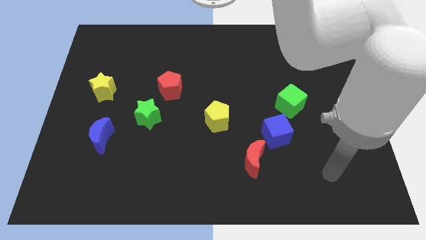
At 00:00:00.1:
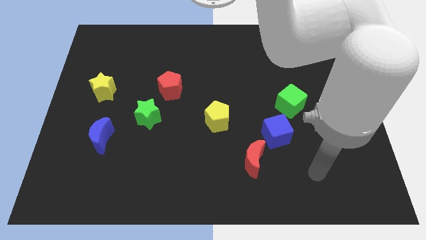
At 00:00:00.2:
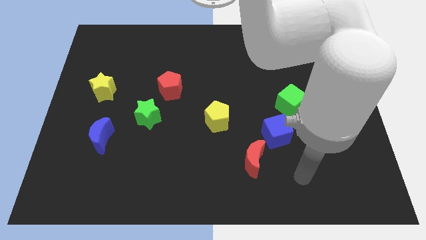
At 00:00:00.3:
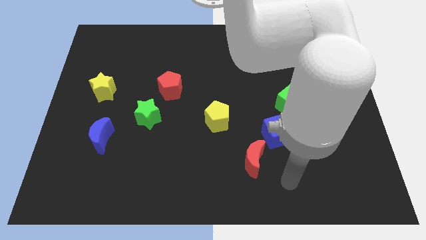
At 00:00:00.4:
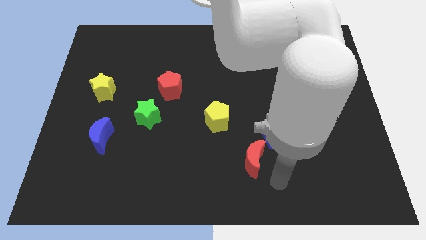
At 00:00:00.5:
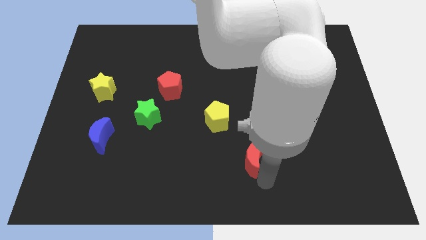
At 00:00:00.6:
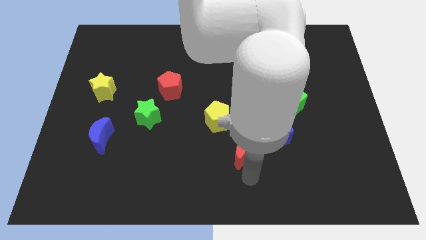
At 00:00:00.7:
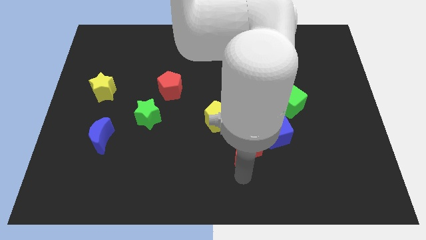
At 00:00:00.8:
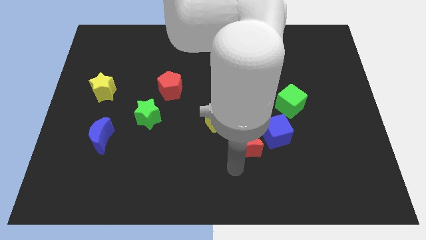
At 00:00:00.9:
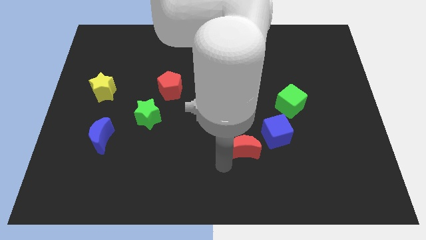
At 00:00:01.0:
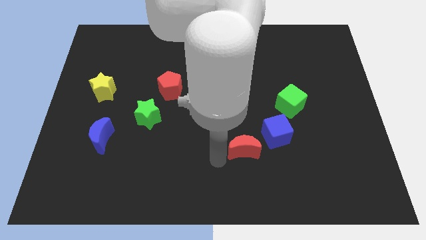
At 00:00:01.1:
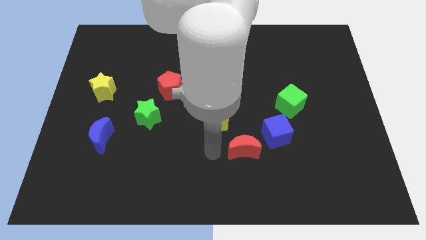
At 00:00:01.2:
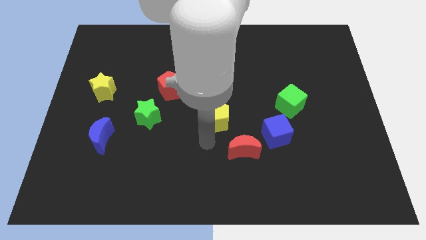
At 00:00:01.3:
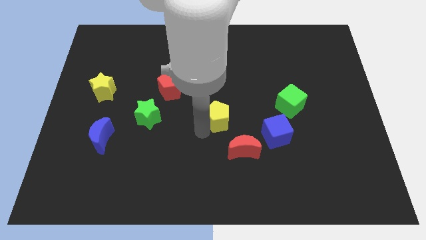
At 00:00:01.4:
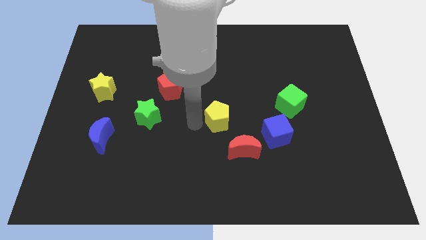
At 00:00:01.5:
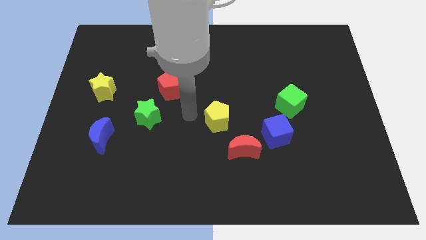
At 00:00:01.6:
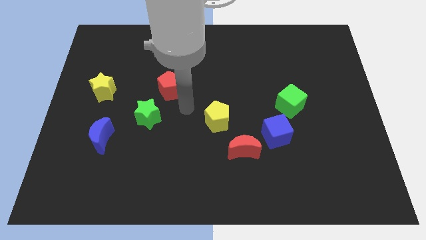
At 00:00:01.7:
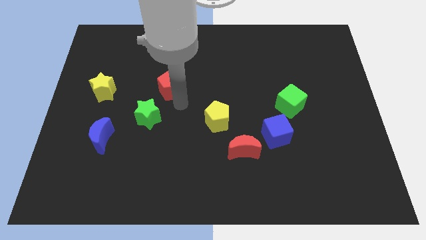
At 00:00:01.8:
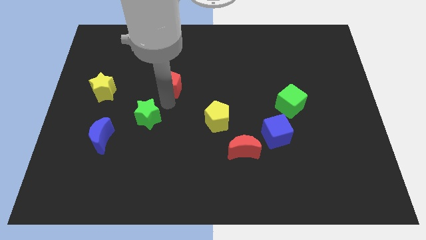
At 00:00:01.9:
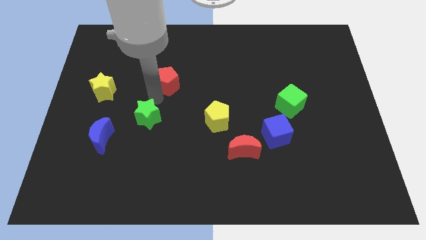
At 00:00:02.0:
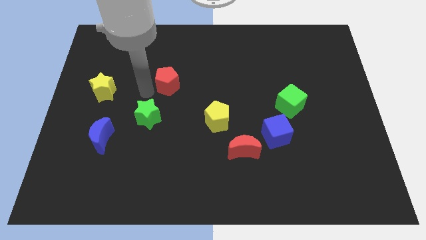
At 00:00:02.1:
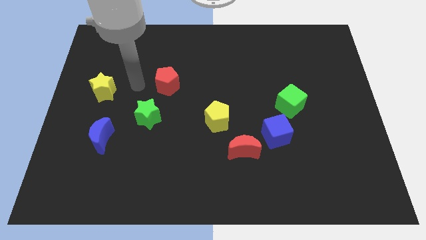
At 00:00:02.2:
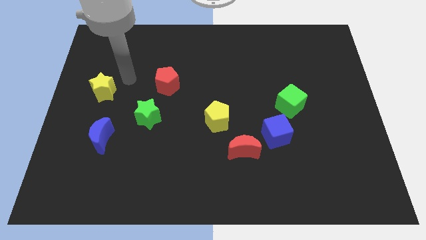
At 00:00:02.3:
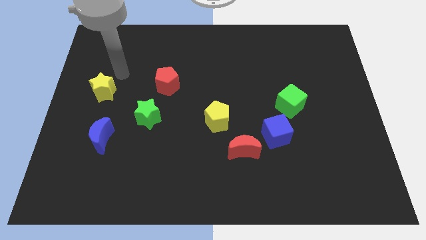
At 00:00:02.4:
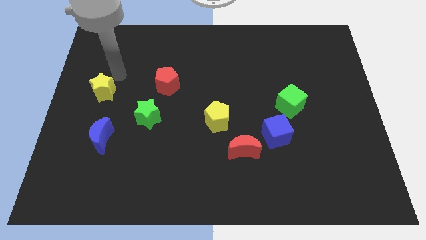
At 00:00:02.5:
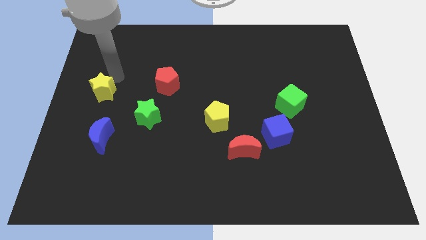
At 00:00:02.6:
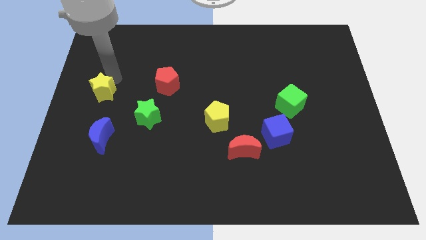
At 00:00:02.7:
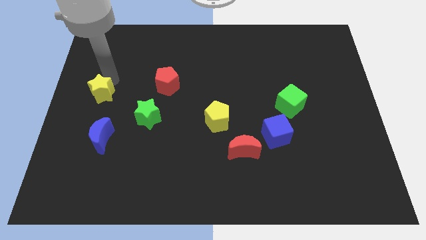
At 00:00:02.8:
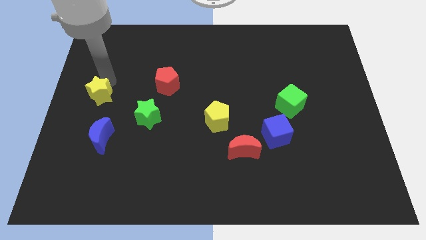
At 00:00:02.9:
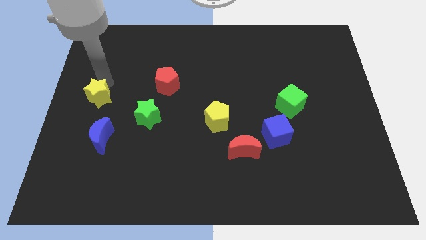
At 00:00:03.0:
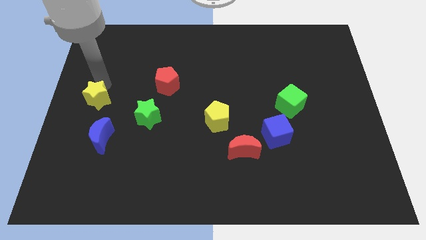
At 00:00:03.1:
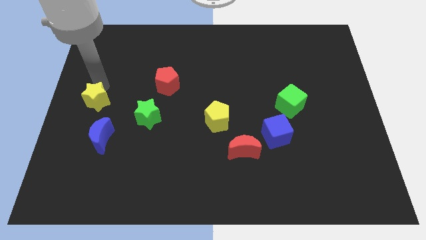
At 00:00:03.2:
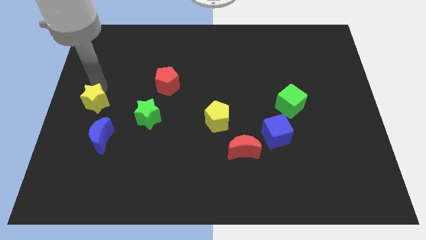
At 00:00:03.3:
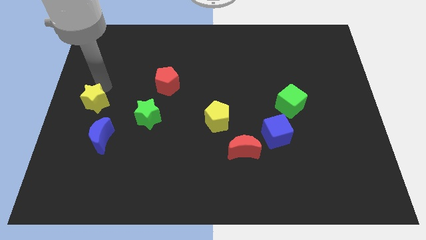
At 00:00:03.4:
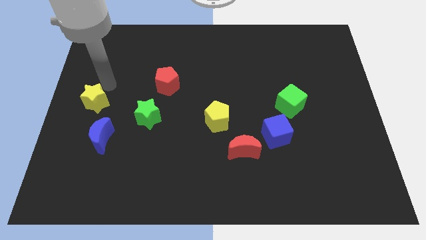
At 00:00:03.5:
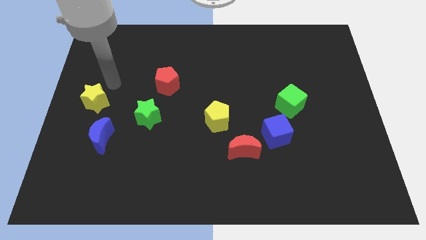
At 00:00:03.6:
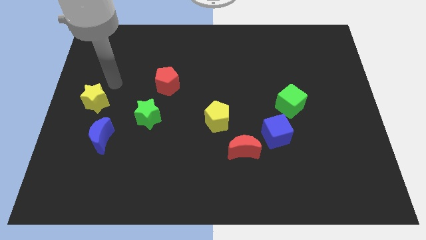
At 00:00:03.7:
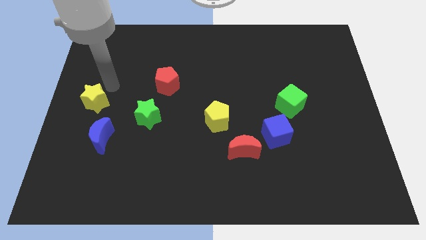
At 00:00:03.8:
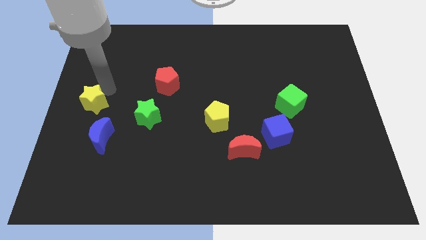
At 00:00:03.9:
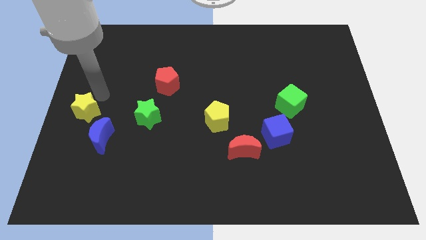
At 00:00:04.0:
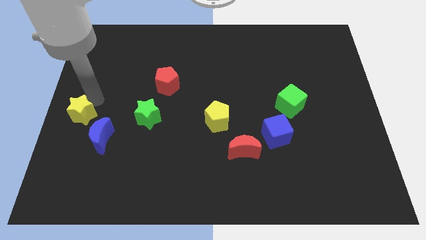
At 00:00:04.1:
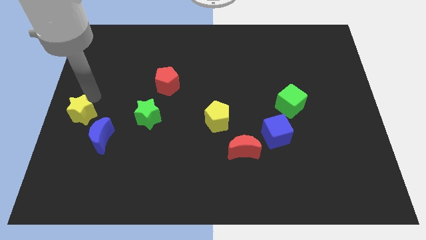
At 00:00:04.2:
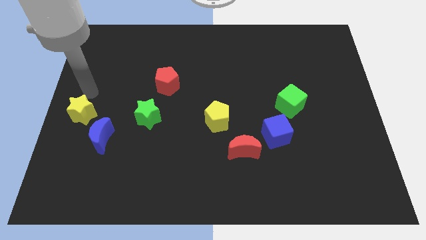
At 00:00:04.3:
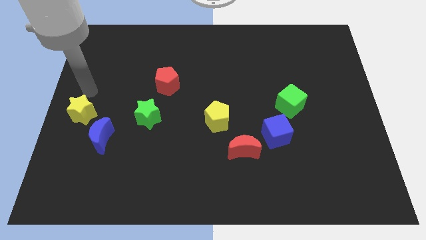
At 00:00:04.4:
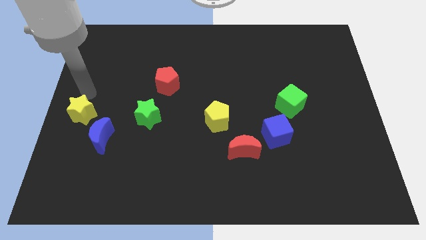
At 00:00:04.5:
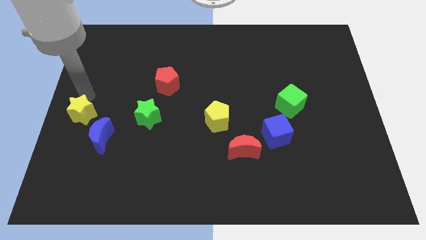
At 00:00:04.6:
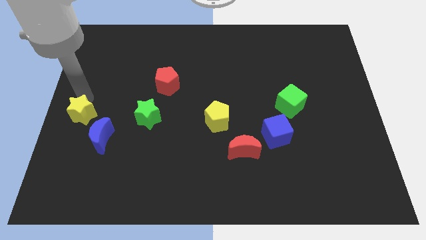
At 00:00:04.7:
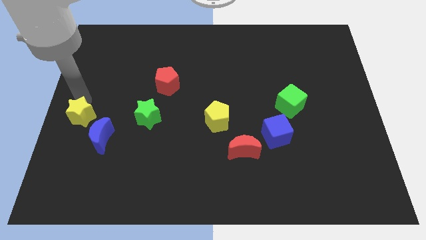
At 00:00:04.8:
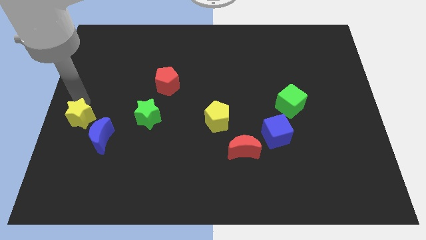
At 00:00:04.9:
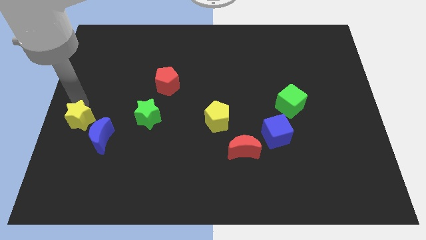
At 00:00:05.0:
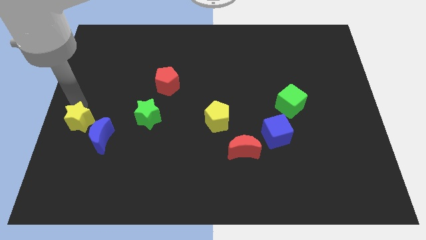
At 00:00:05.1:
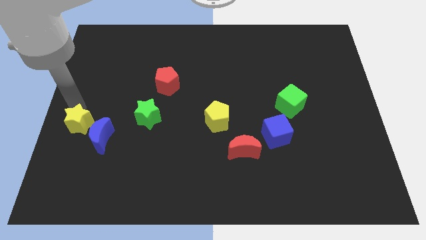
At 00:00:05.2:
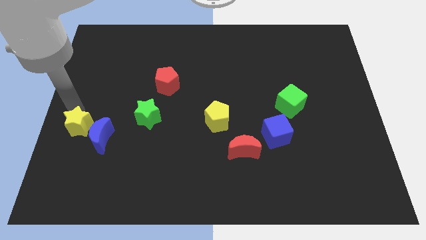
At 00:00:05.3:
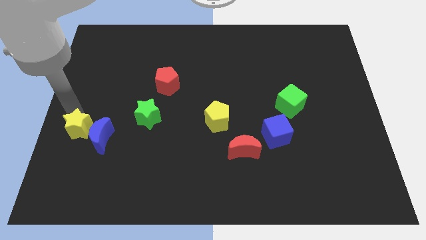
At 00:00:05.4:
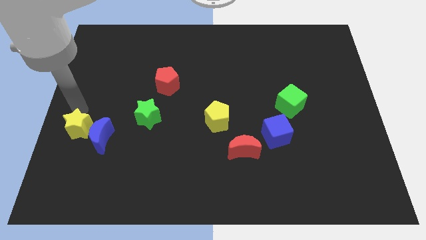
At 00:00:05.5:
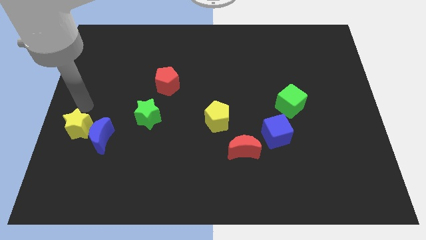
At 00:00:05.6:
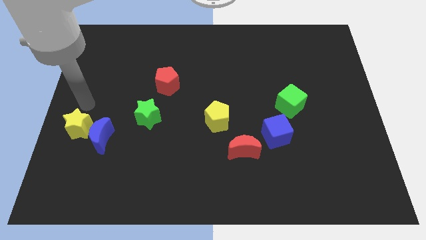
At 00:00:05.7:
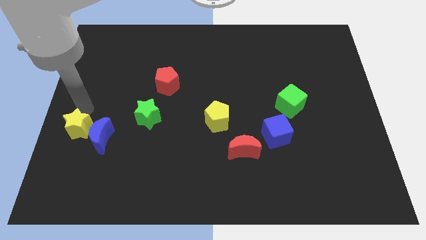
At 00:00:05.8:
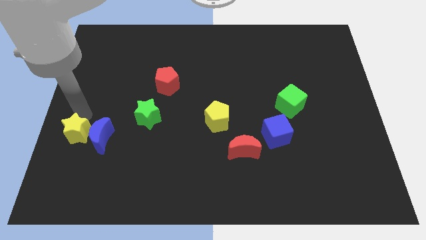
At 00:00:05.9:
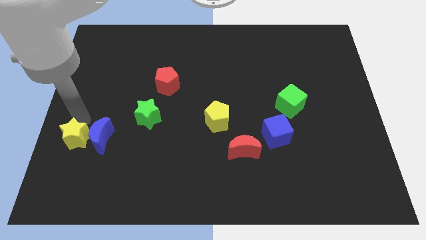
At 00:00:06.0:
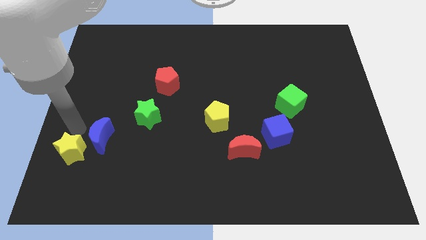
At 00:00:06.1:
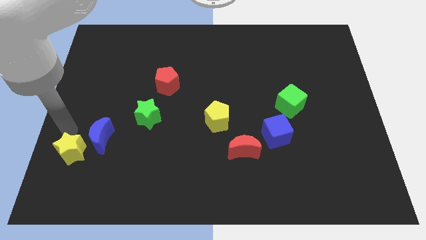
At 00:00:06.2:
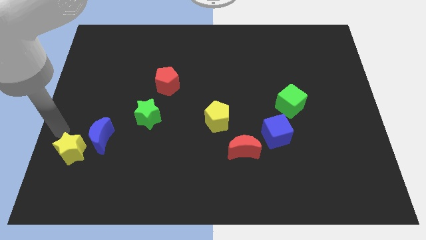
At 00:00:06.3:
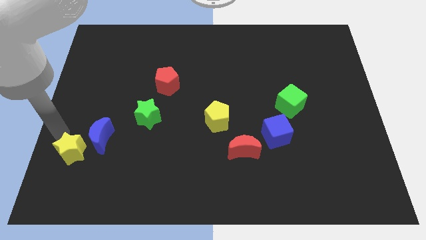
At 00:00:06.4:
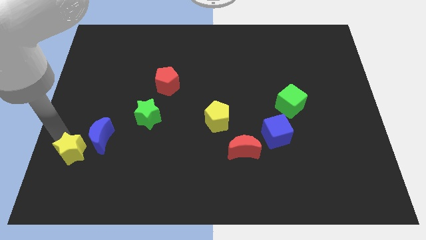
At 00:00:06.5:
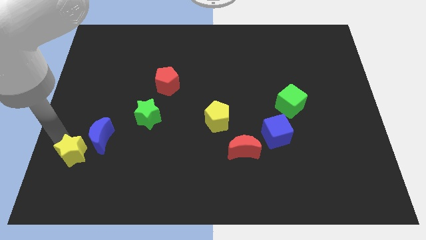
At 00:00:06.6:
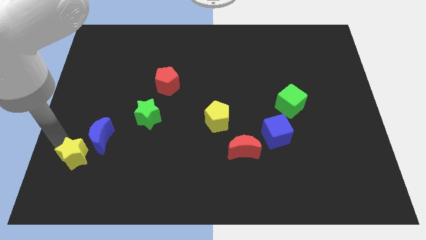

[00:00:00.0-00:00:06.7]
push the yellow star to the bottom of the blue moon

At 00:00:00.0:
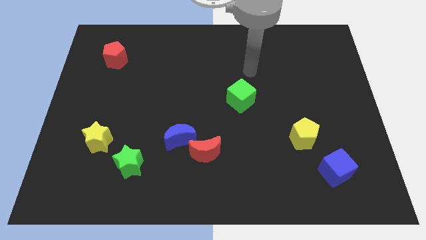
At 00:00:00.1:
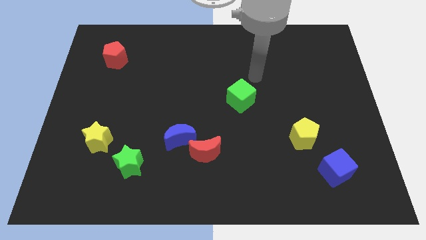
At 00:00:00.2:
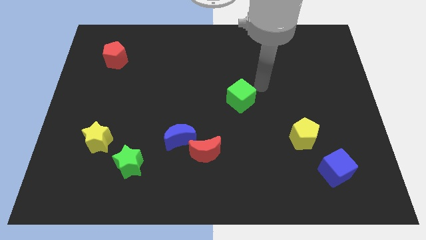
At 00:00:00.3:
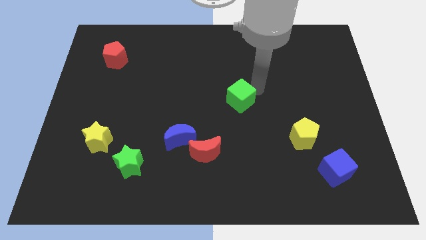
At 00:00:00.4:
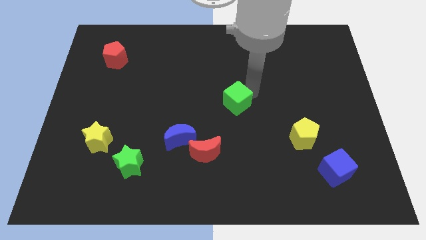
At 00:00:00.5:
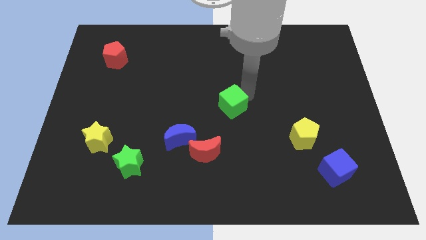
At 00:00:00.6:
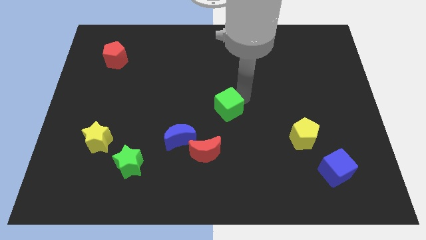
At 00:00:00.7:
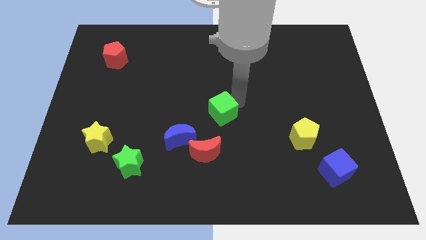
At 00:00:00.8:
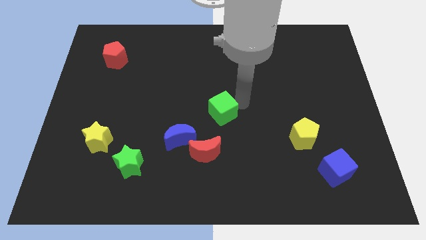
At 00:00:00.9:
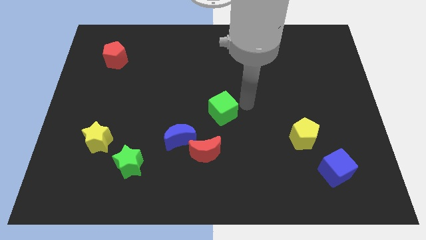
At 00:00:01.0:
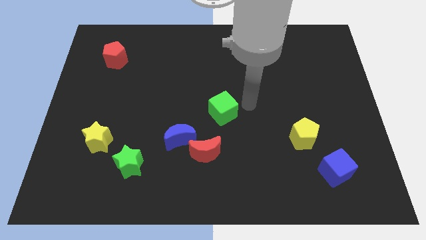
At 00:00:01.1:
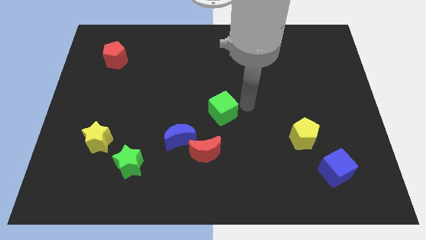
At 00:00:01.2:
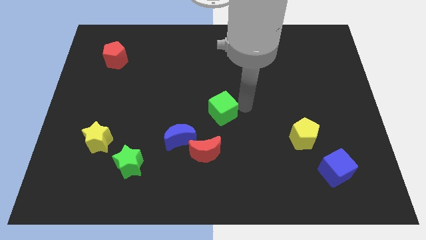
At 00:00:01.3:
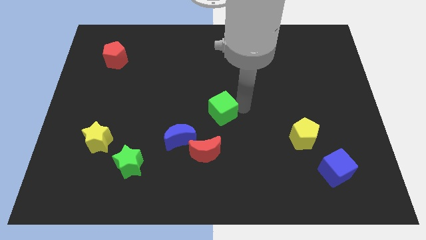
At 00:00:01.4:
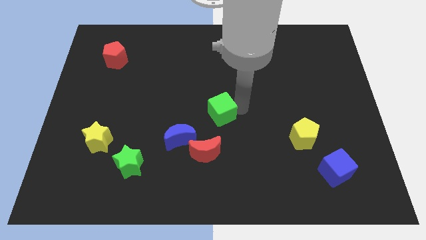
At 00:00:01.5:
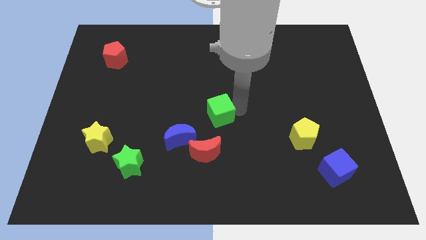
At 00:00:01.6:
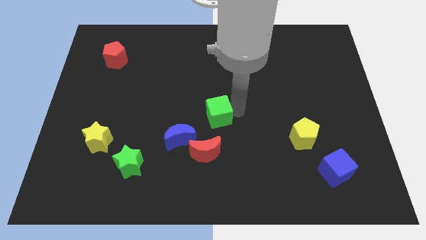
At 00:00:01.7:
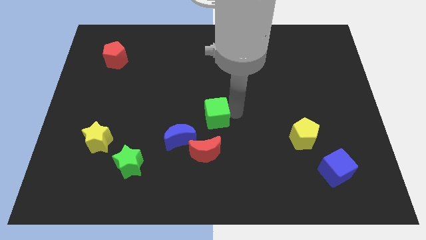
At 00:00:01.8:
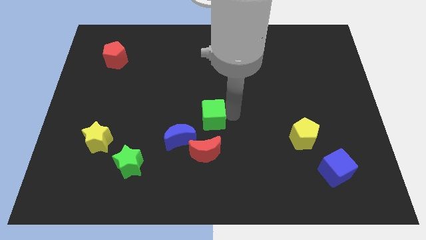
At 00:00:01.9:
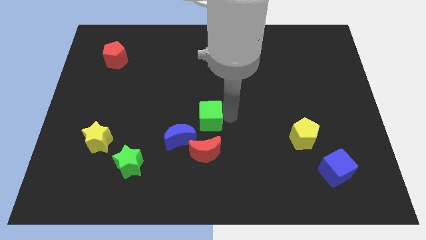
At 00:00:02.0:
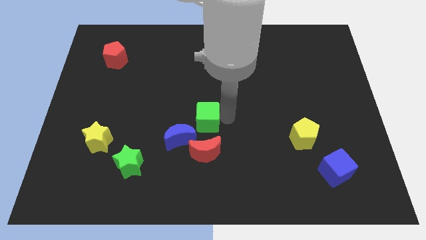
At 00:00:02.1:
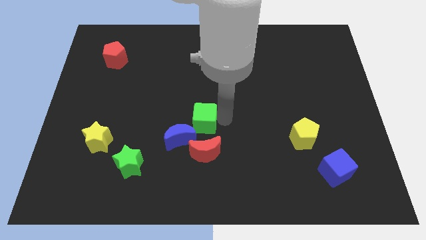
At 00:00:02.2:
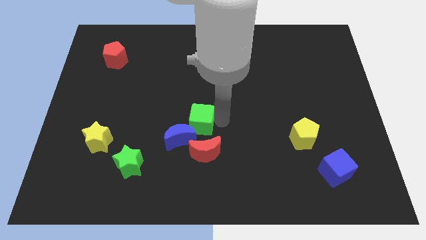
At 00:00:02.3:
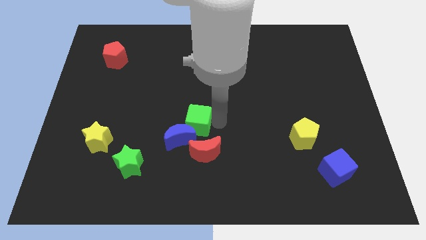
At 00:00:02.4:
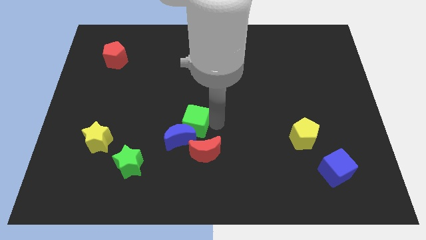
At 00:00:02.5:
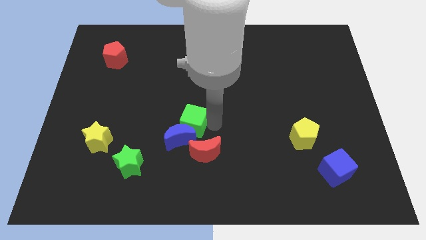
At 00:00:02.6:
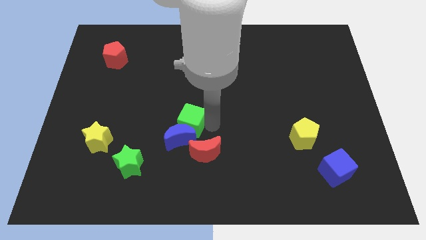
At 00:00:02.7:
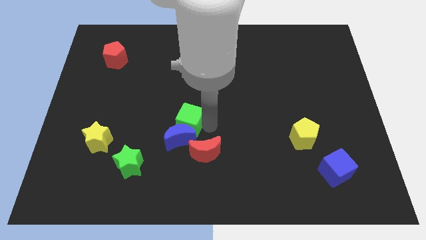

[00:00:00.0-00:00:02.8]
push the green cube to the top left side of the blue moon
